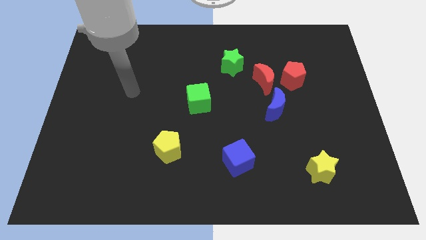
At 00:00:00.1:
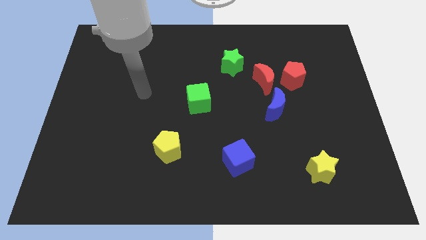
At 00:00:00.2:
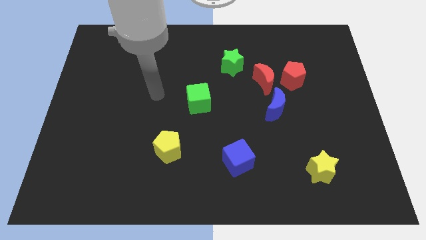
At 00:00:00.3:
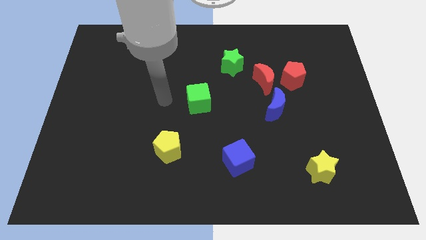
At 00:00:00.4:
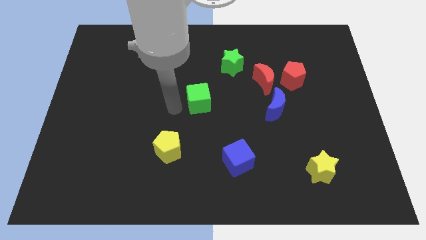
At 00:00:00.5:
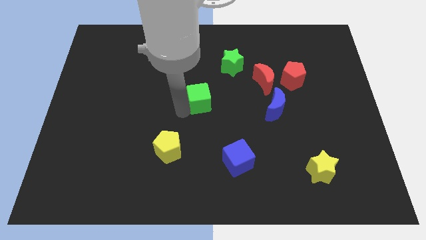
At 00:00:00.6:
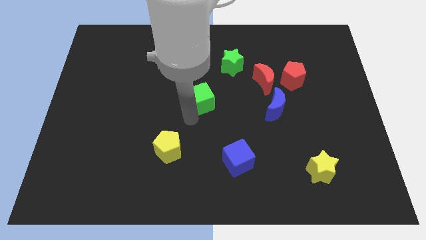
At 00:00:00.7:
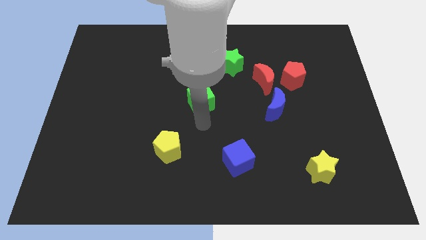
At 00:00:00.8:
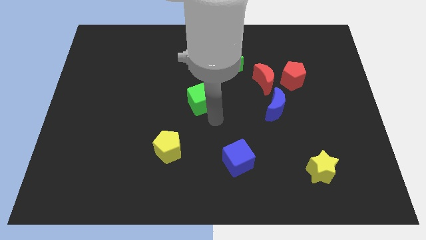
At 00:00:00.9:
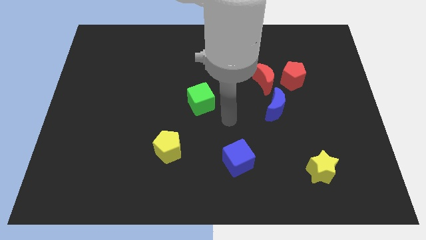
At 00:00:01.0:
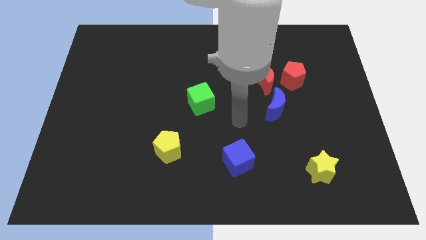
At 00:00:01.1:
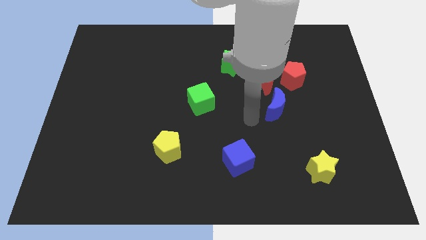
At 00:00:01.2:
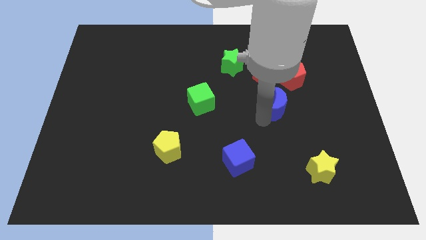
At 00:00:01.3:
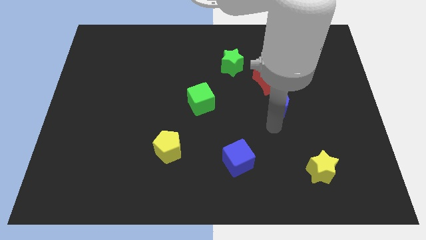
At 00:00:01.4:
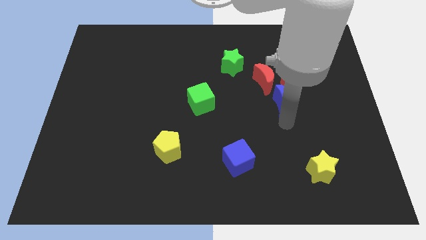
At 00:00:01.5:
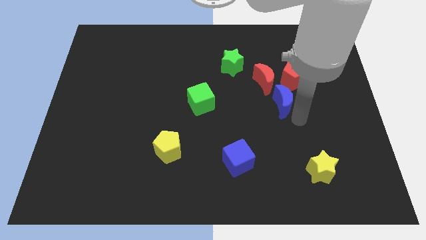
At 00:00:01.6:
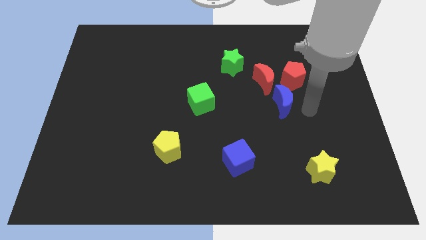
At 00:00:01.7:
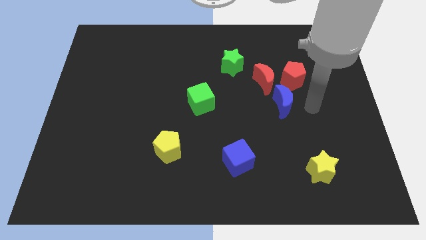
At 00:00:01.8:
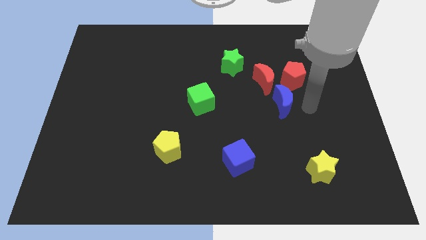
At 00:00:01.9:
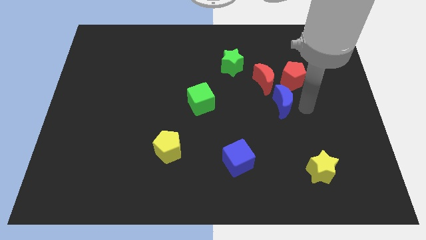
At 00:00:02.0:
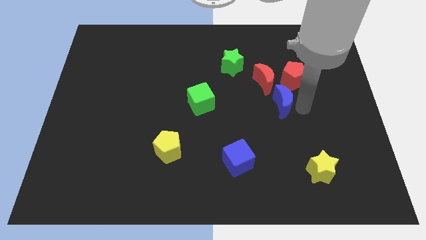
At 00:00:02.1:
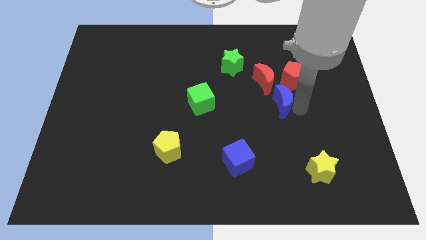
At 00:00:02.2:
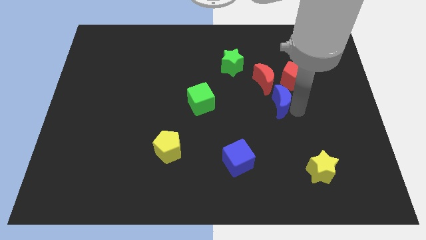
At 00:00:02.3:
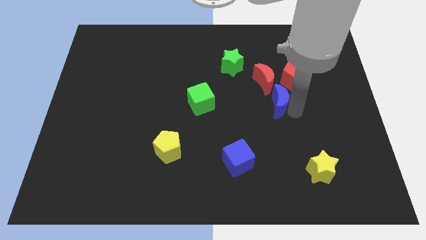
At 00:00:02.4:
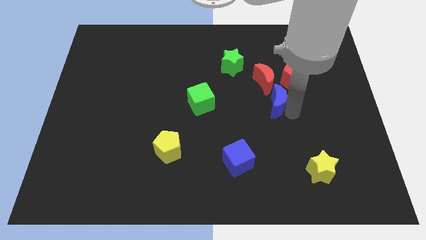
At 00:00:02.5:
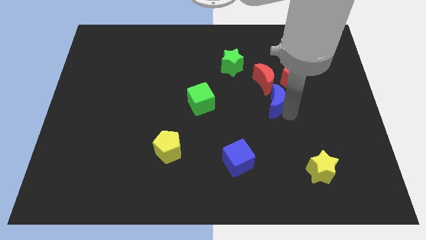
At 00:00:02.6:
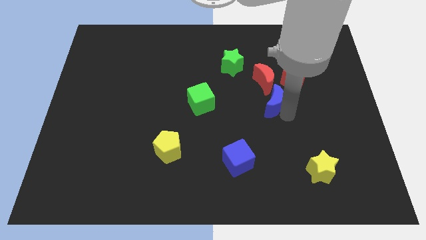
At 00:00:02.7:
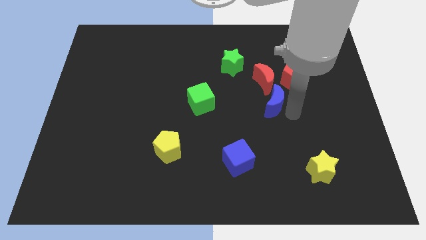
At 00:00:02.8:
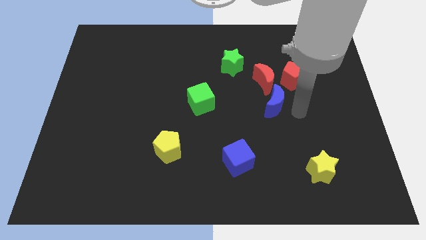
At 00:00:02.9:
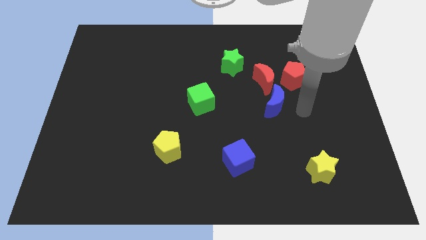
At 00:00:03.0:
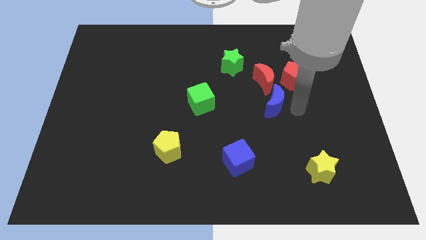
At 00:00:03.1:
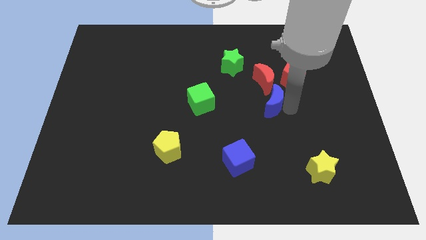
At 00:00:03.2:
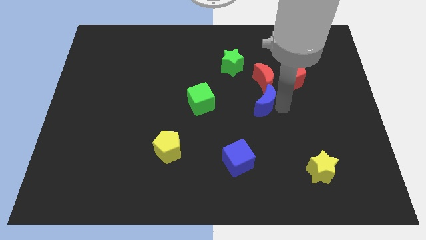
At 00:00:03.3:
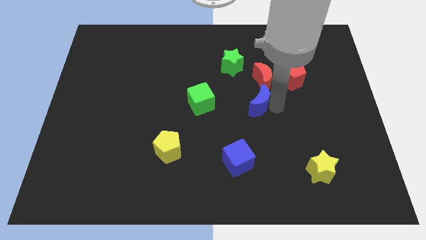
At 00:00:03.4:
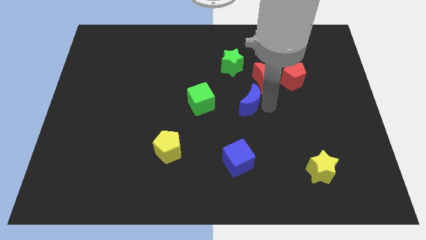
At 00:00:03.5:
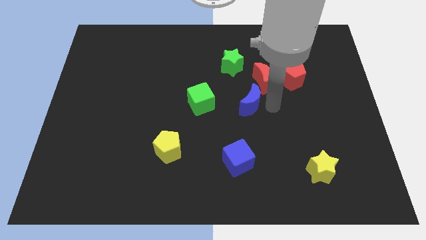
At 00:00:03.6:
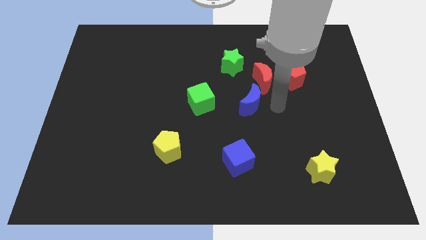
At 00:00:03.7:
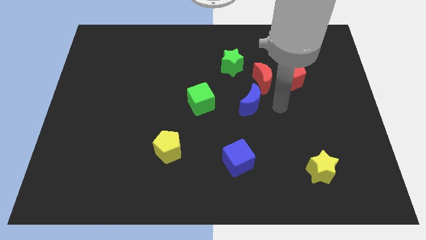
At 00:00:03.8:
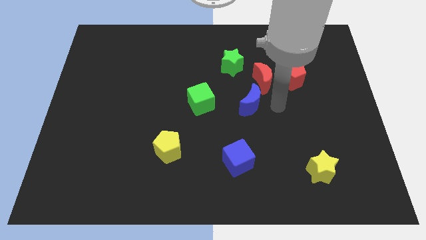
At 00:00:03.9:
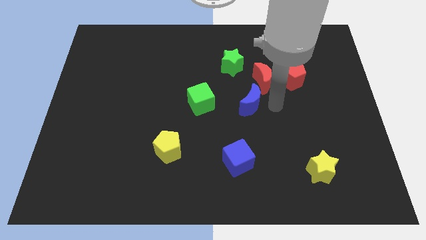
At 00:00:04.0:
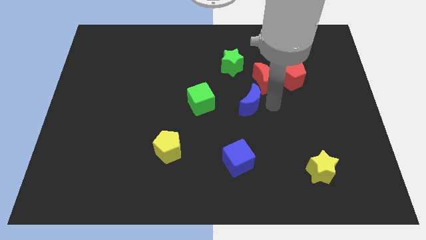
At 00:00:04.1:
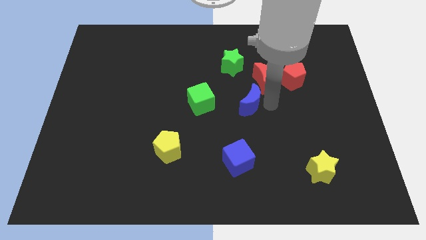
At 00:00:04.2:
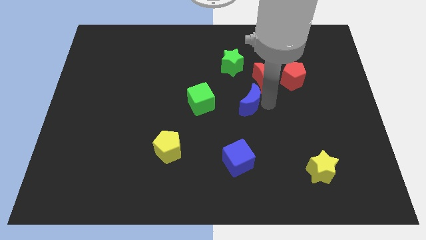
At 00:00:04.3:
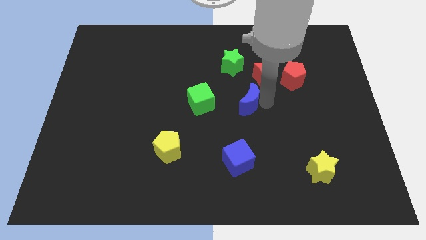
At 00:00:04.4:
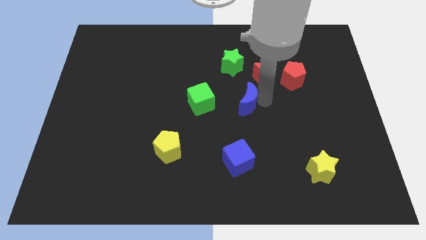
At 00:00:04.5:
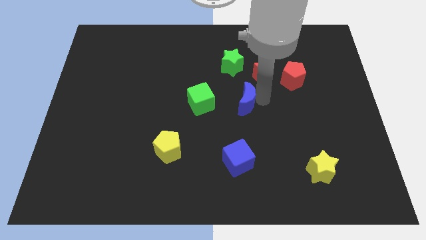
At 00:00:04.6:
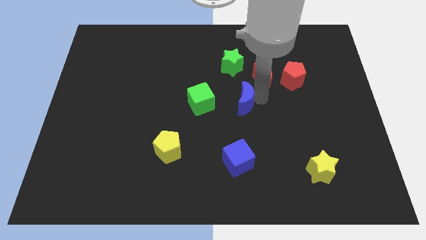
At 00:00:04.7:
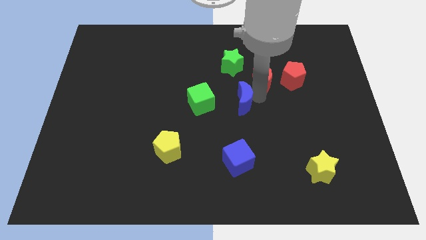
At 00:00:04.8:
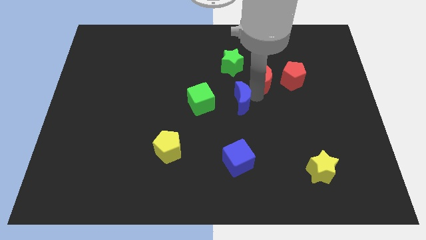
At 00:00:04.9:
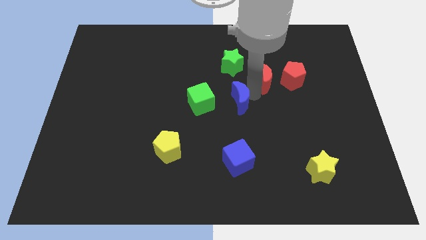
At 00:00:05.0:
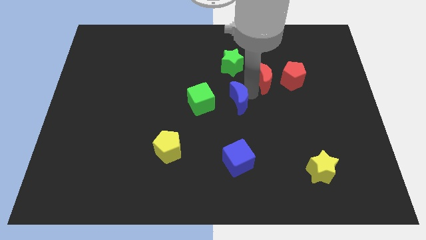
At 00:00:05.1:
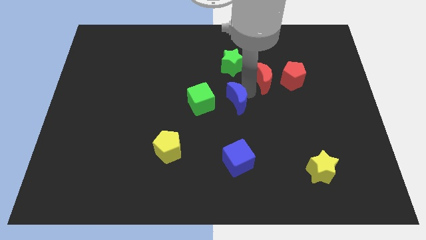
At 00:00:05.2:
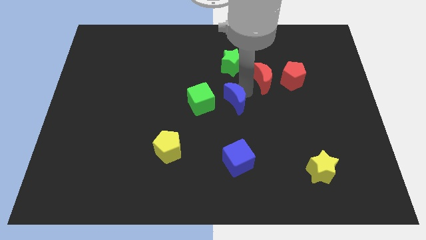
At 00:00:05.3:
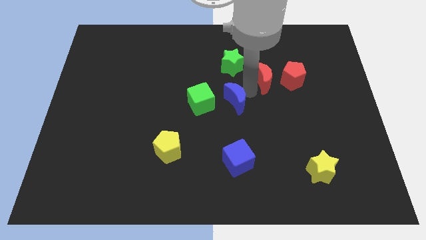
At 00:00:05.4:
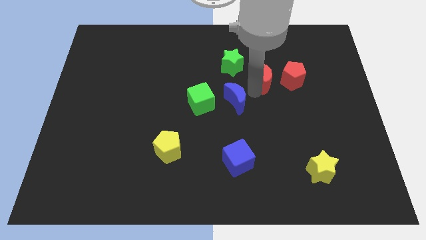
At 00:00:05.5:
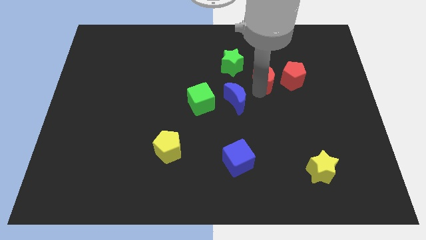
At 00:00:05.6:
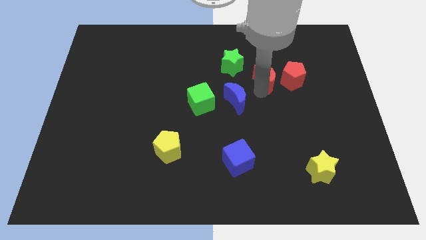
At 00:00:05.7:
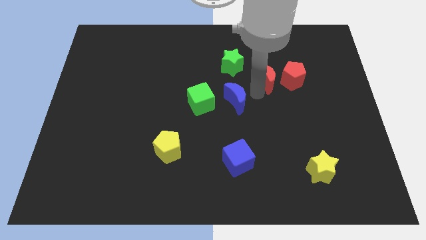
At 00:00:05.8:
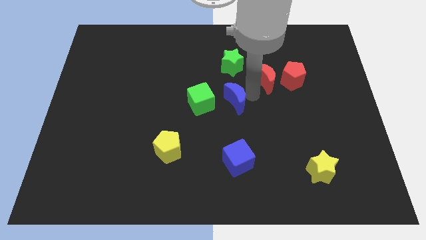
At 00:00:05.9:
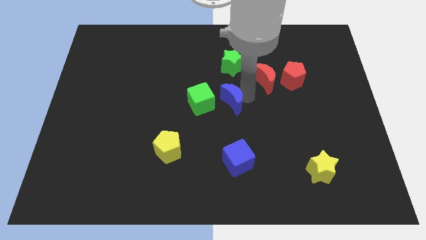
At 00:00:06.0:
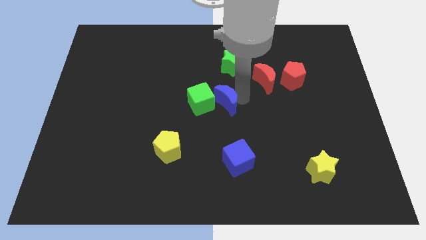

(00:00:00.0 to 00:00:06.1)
move the blue moon towards the green cube

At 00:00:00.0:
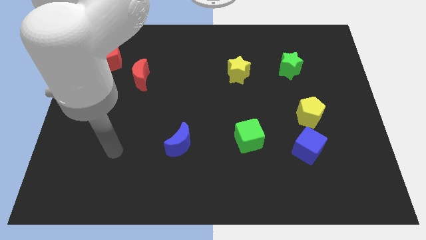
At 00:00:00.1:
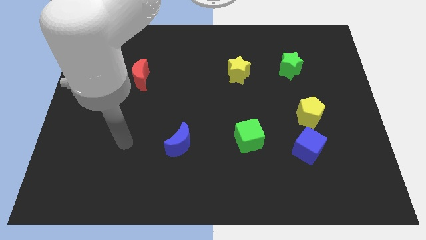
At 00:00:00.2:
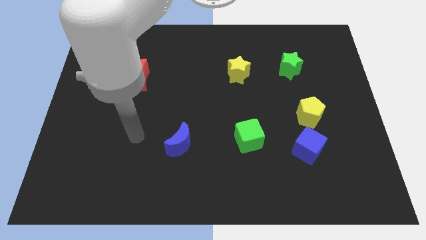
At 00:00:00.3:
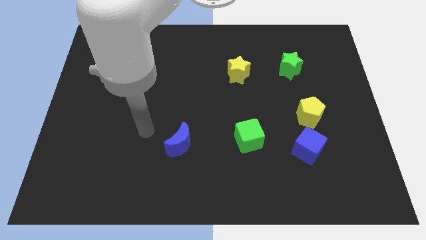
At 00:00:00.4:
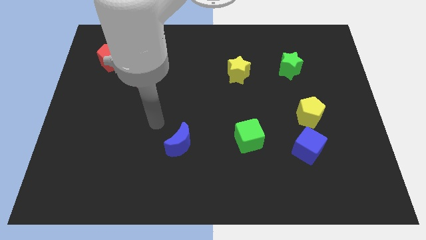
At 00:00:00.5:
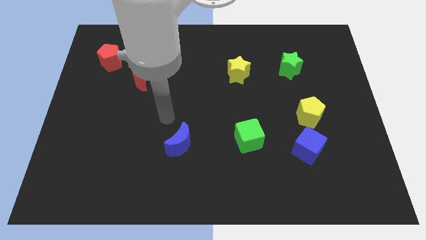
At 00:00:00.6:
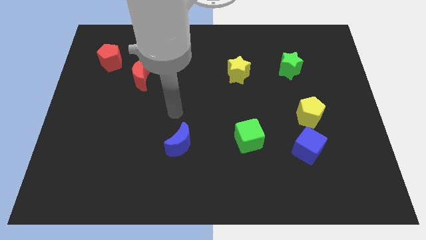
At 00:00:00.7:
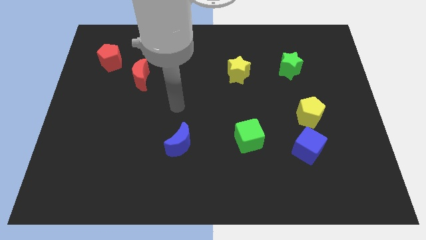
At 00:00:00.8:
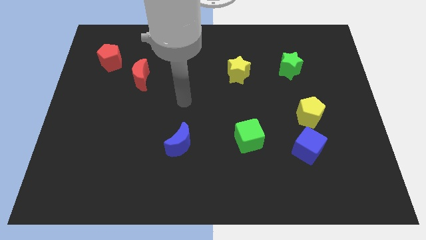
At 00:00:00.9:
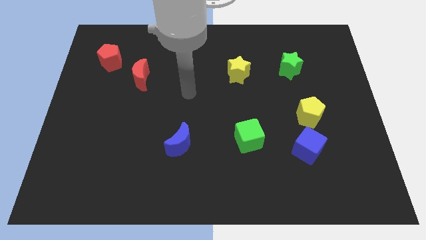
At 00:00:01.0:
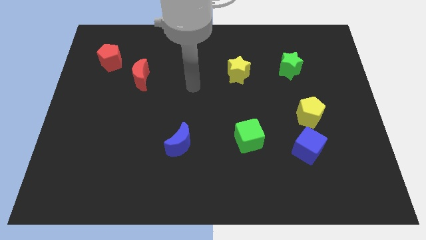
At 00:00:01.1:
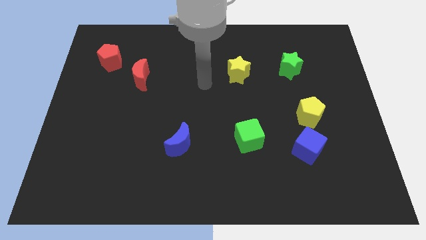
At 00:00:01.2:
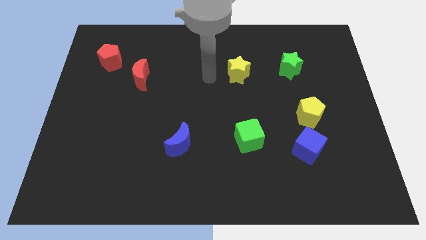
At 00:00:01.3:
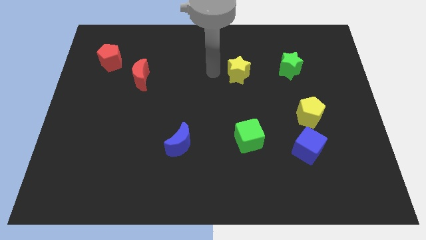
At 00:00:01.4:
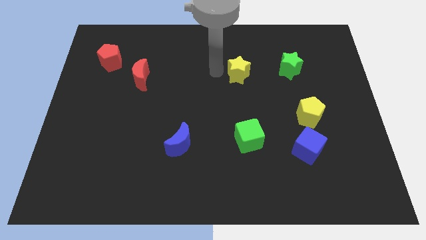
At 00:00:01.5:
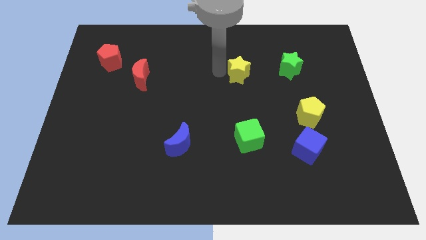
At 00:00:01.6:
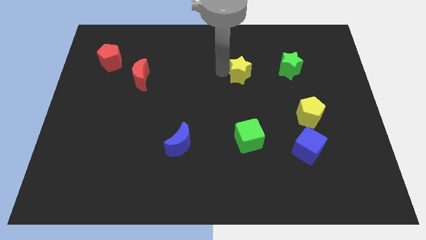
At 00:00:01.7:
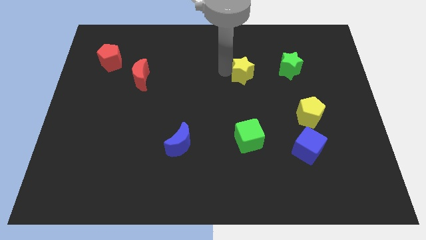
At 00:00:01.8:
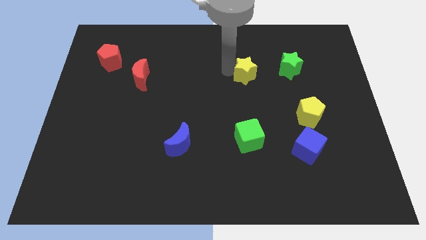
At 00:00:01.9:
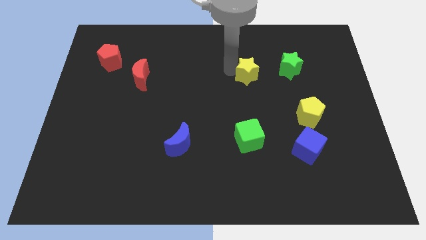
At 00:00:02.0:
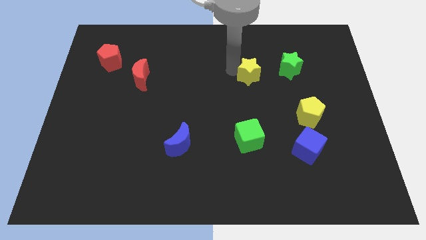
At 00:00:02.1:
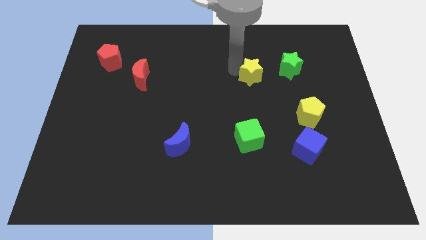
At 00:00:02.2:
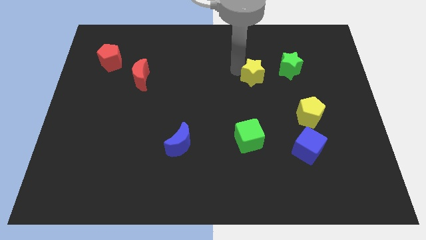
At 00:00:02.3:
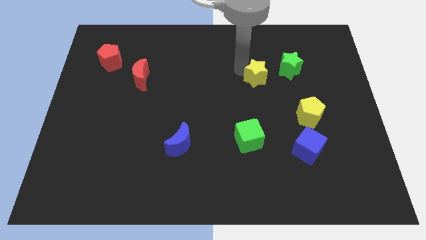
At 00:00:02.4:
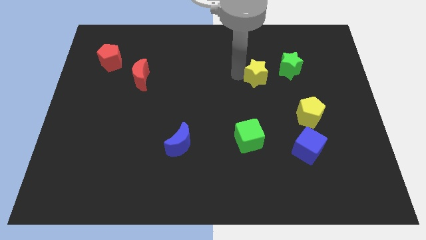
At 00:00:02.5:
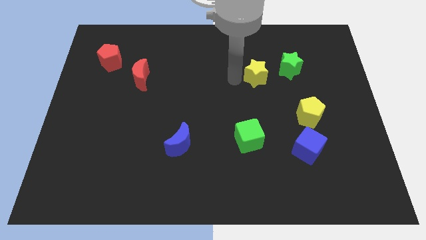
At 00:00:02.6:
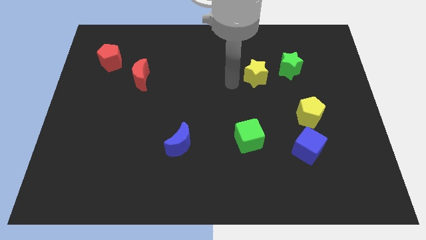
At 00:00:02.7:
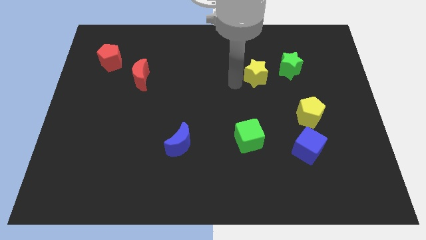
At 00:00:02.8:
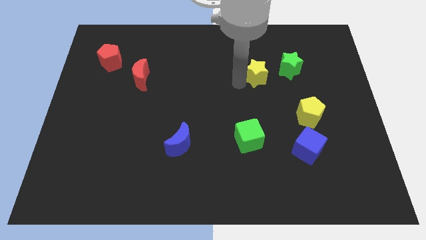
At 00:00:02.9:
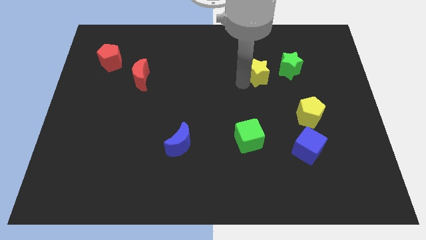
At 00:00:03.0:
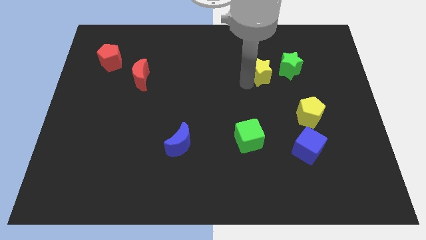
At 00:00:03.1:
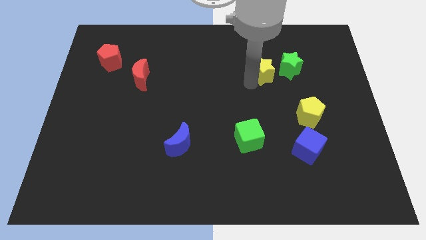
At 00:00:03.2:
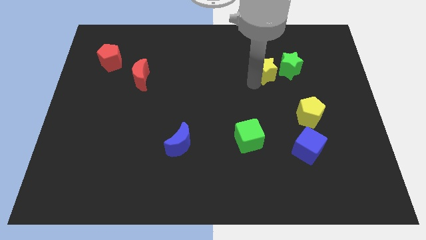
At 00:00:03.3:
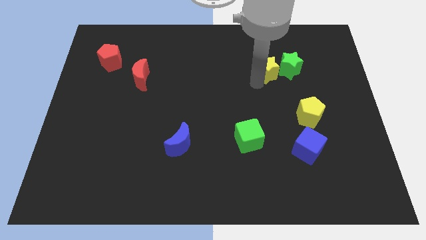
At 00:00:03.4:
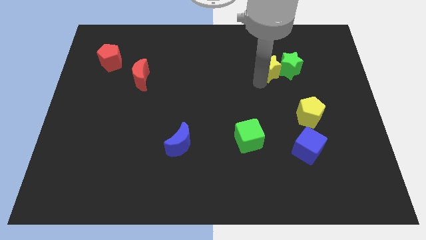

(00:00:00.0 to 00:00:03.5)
push the yellow star close to the green star
